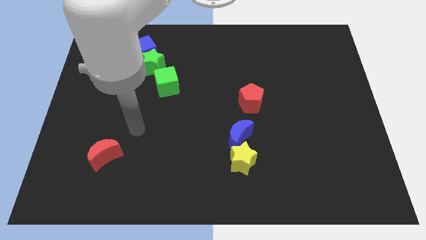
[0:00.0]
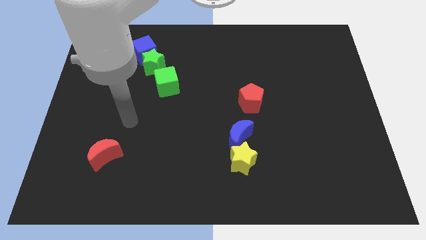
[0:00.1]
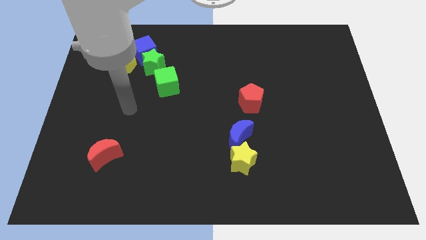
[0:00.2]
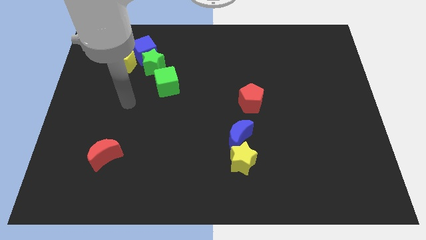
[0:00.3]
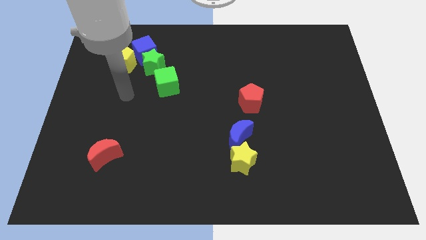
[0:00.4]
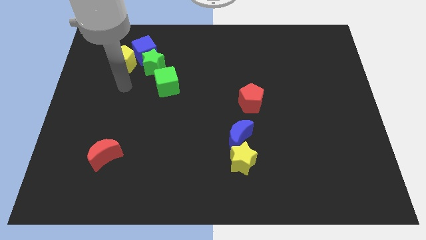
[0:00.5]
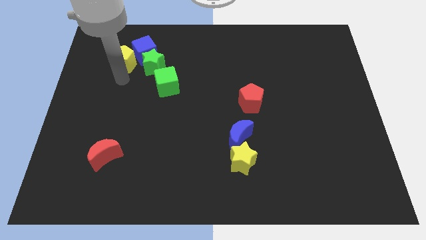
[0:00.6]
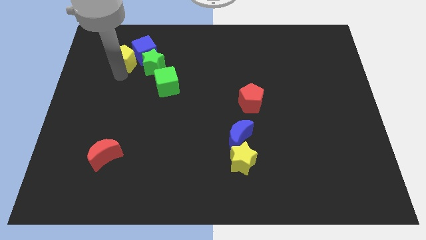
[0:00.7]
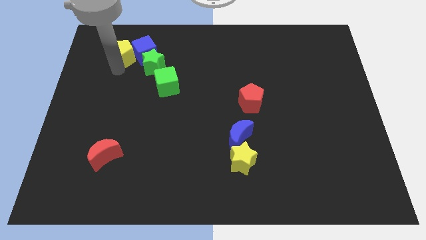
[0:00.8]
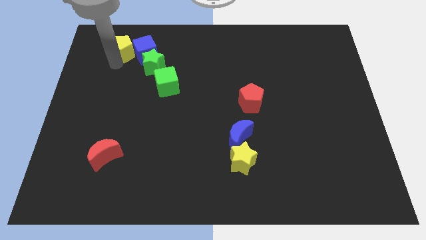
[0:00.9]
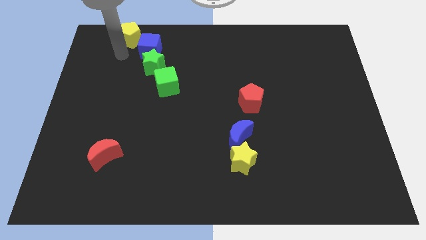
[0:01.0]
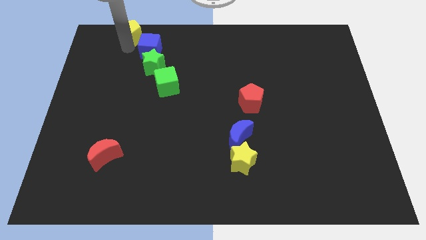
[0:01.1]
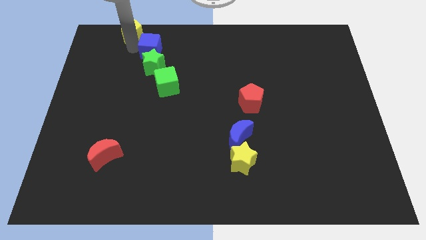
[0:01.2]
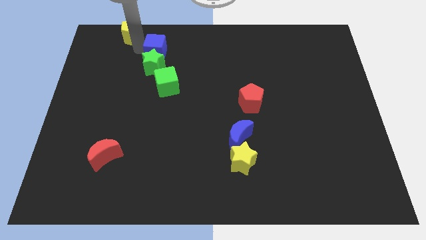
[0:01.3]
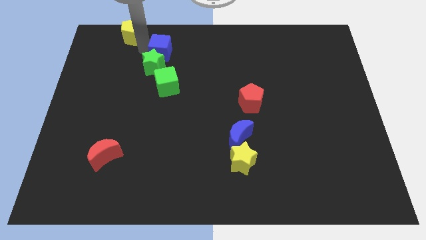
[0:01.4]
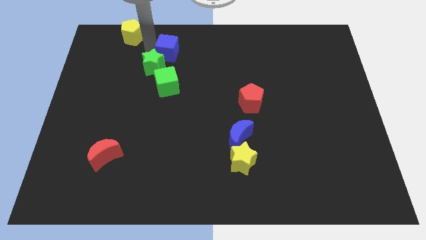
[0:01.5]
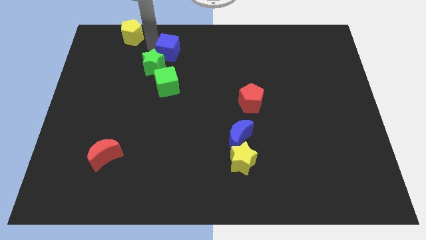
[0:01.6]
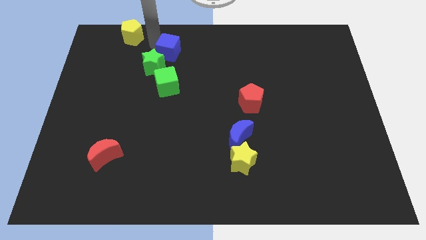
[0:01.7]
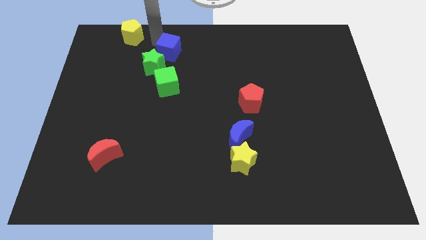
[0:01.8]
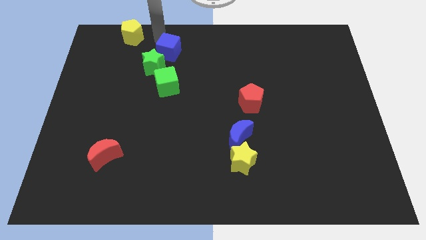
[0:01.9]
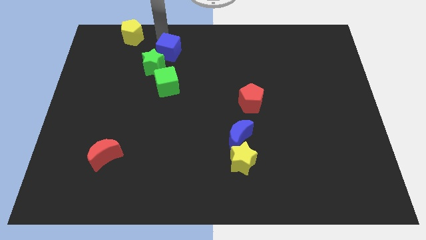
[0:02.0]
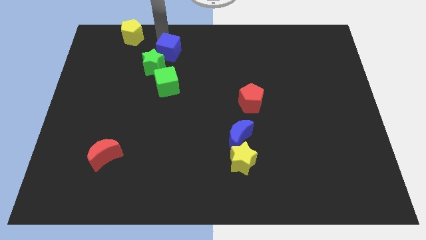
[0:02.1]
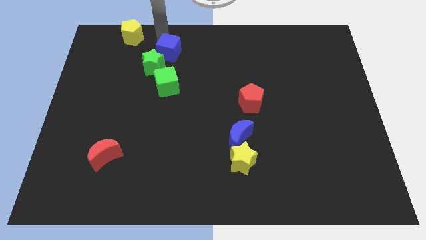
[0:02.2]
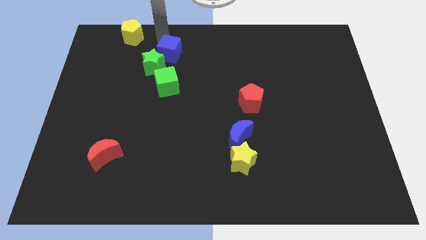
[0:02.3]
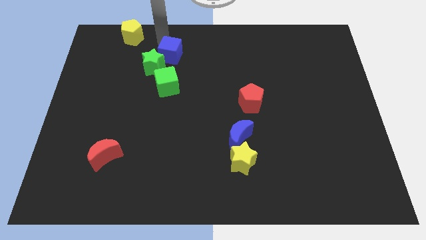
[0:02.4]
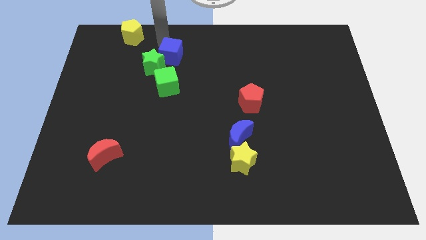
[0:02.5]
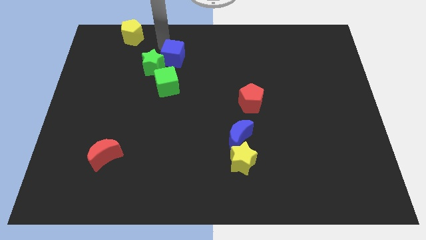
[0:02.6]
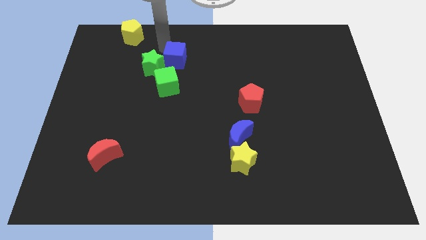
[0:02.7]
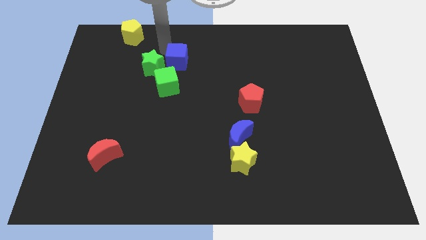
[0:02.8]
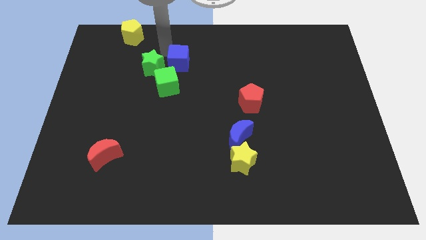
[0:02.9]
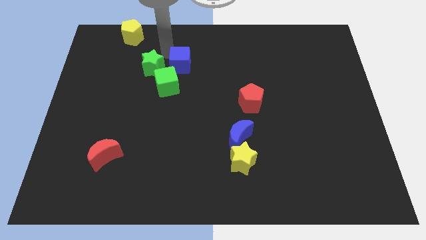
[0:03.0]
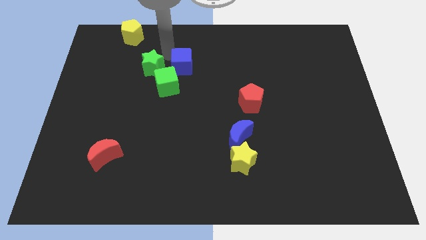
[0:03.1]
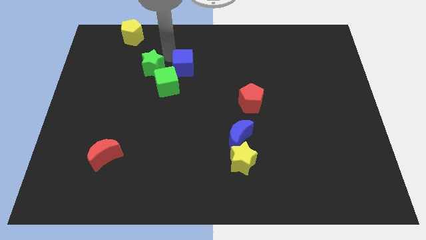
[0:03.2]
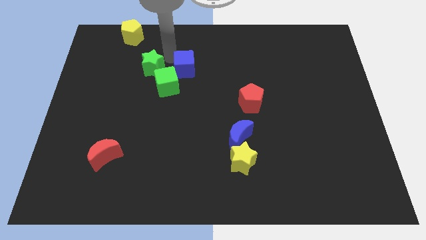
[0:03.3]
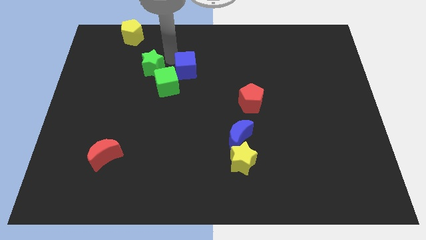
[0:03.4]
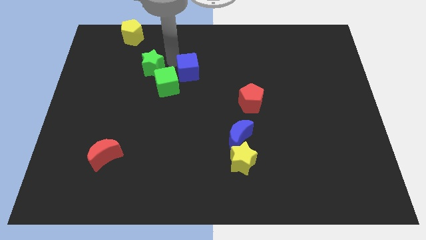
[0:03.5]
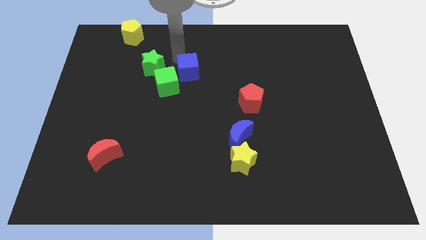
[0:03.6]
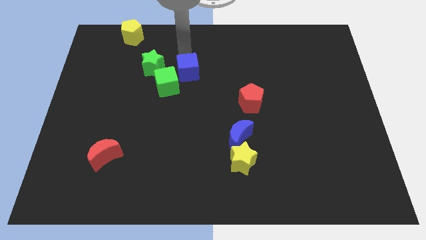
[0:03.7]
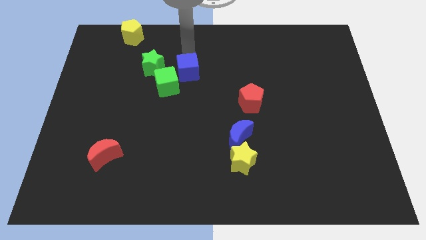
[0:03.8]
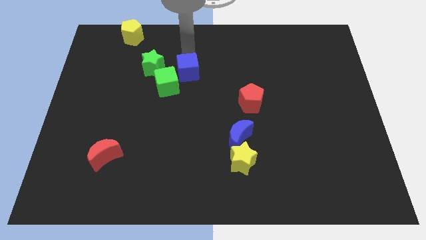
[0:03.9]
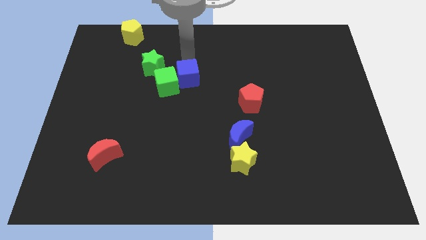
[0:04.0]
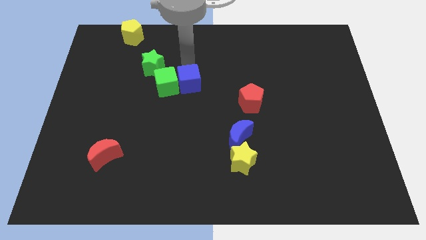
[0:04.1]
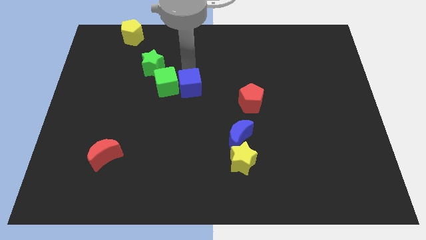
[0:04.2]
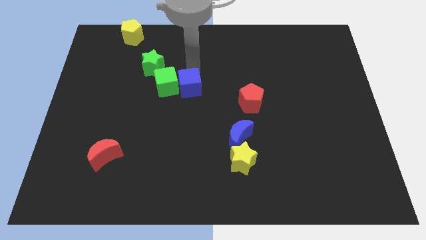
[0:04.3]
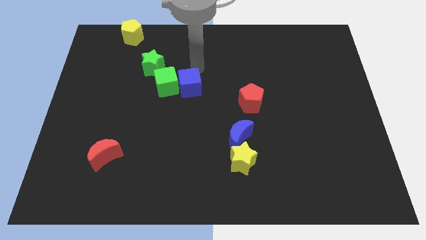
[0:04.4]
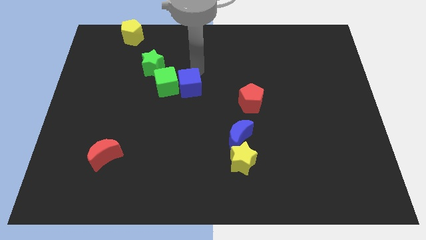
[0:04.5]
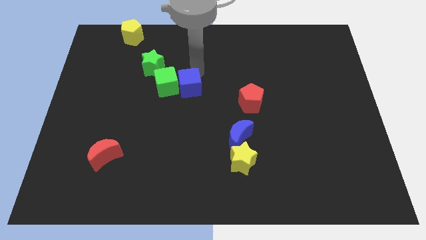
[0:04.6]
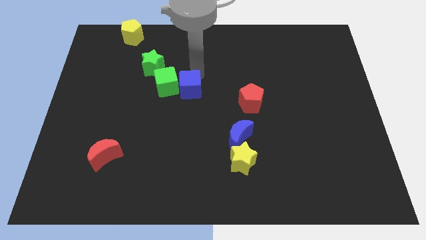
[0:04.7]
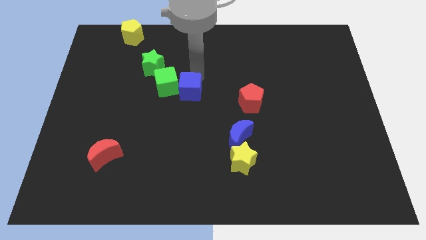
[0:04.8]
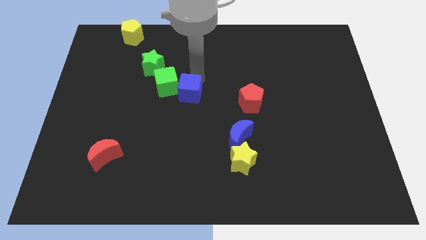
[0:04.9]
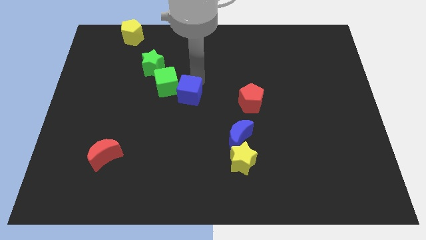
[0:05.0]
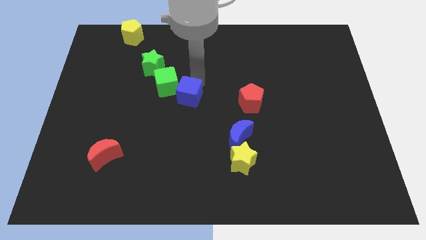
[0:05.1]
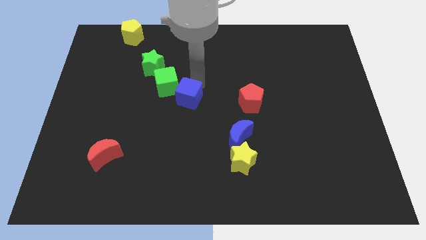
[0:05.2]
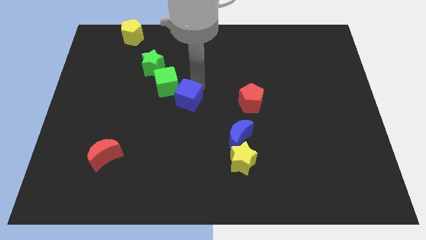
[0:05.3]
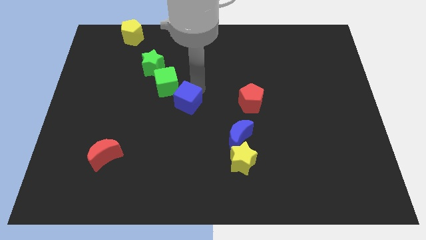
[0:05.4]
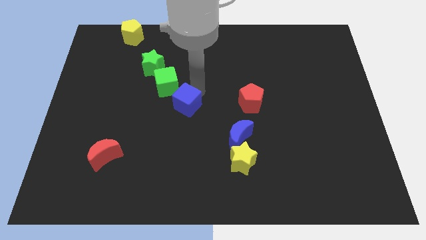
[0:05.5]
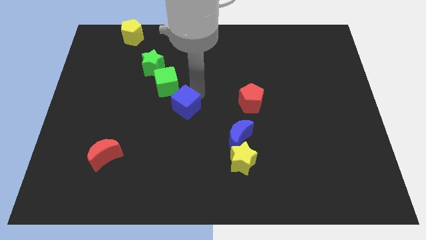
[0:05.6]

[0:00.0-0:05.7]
push the blue cube below the green cube
